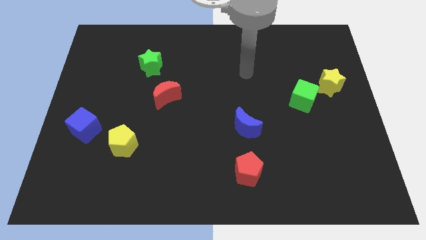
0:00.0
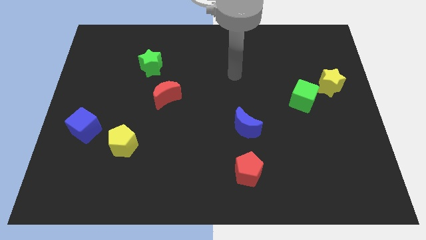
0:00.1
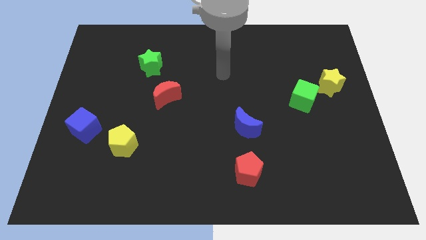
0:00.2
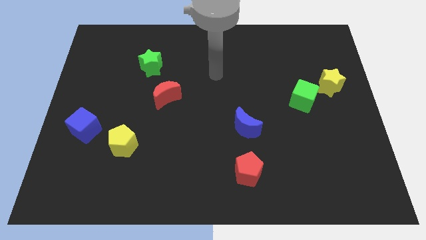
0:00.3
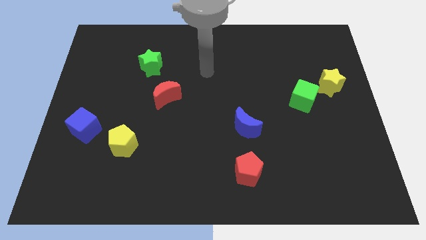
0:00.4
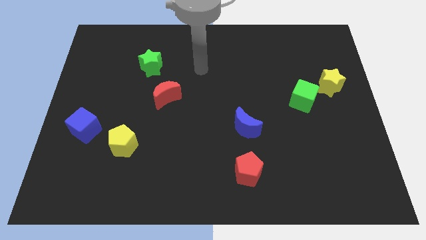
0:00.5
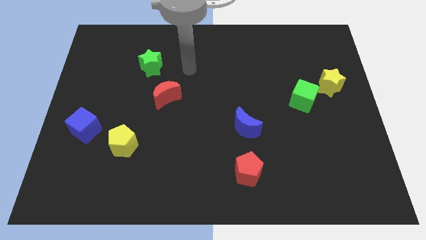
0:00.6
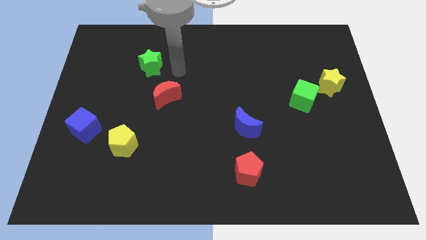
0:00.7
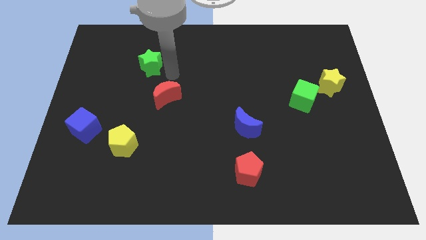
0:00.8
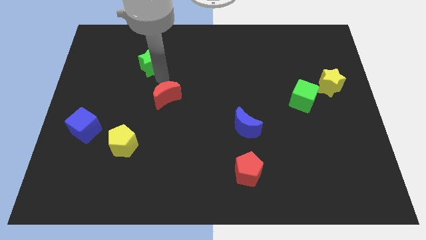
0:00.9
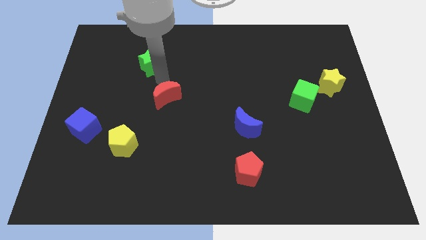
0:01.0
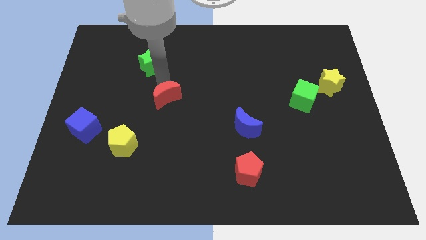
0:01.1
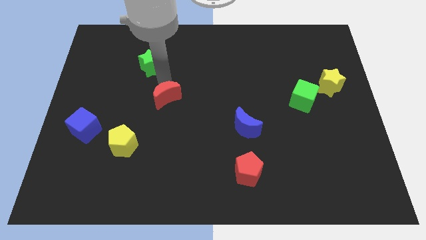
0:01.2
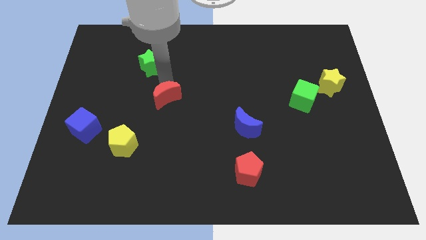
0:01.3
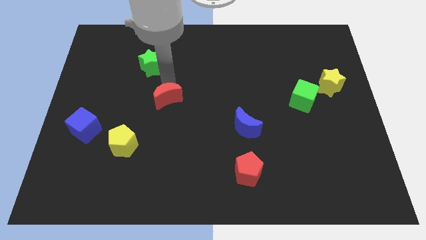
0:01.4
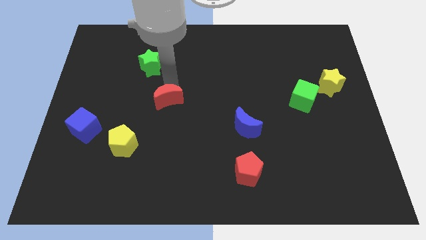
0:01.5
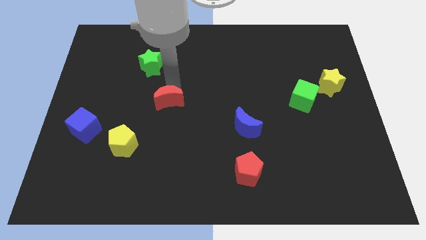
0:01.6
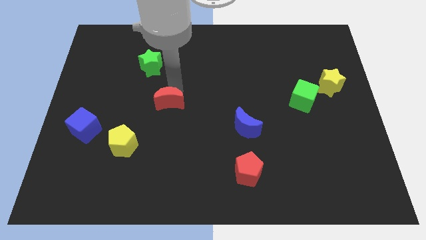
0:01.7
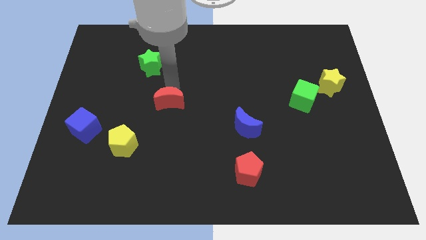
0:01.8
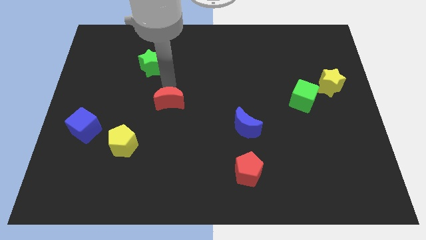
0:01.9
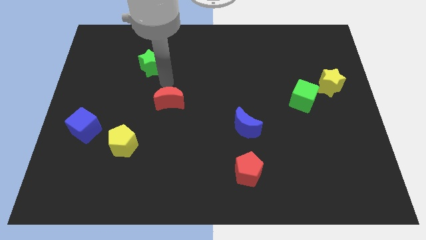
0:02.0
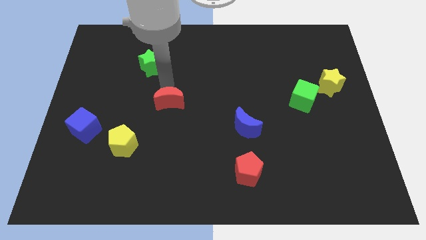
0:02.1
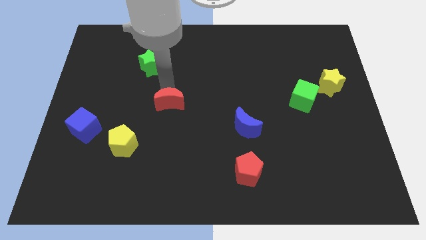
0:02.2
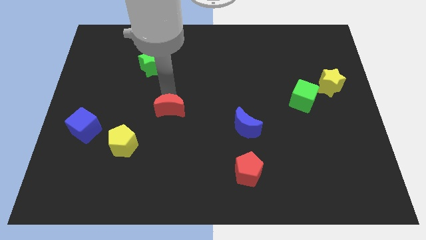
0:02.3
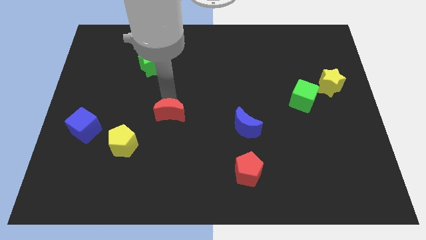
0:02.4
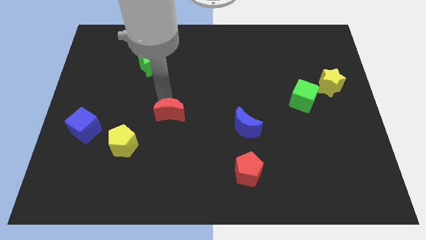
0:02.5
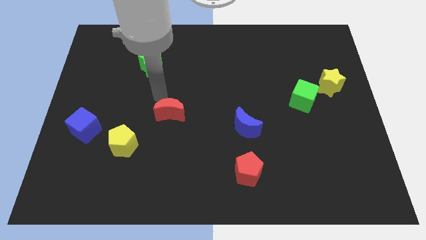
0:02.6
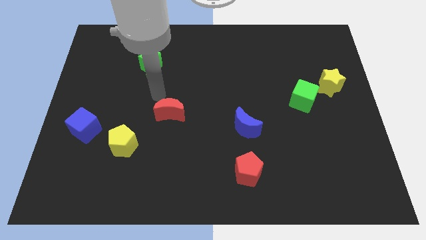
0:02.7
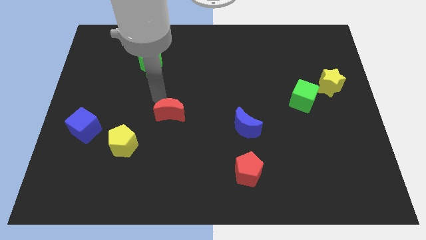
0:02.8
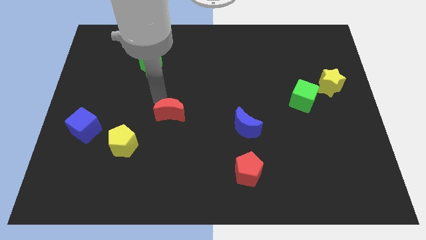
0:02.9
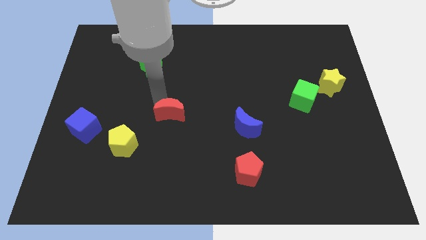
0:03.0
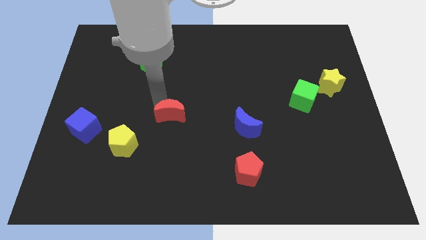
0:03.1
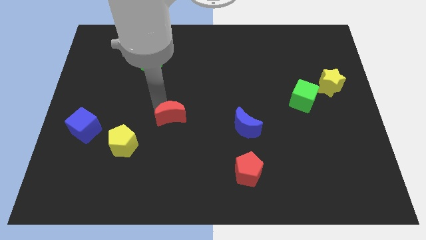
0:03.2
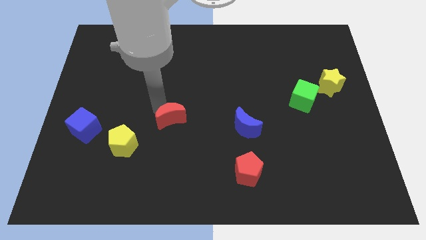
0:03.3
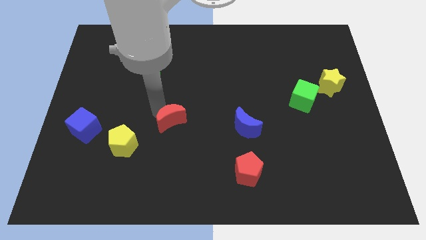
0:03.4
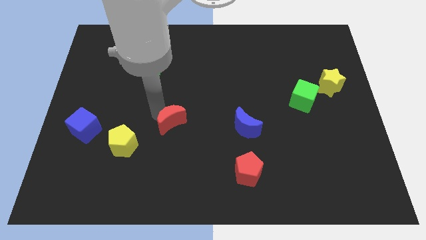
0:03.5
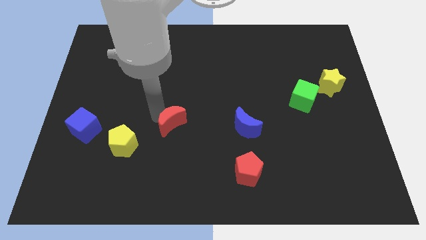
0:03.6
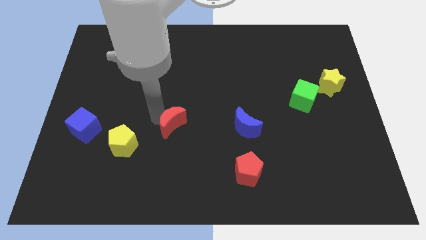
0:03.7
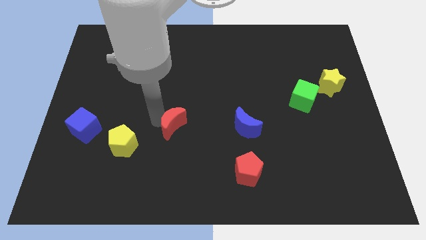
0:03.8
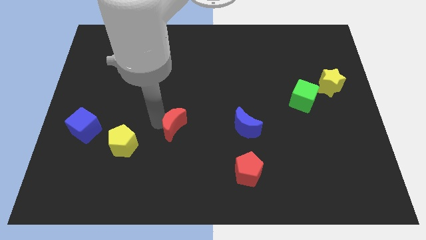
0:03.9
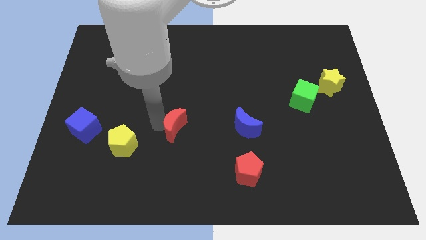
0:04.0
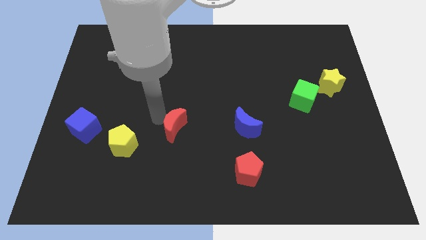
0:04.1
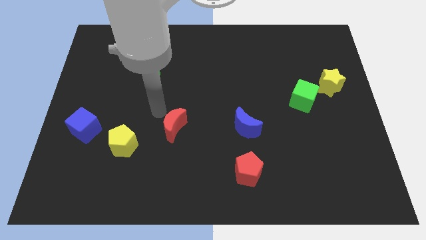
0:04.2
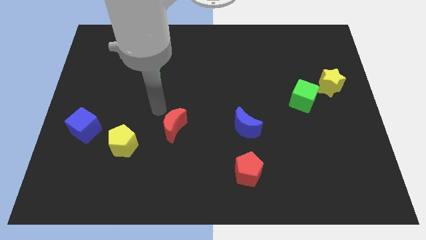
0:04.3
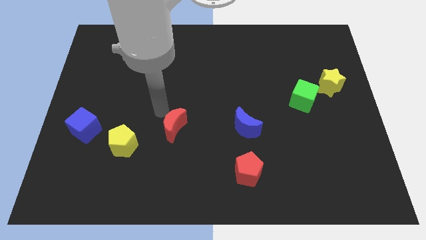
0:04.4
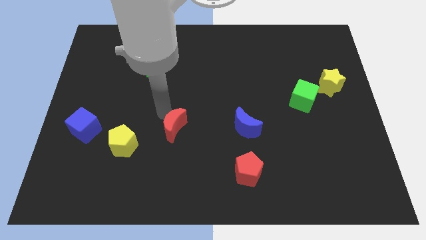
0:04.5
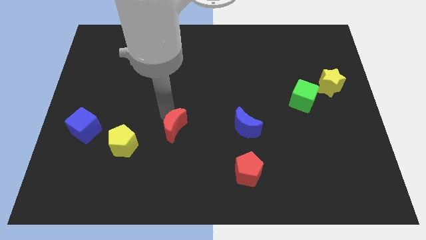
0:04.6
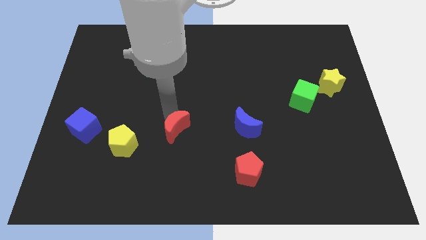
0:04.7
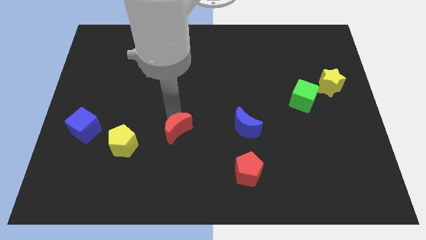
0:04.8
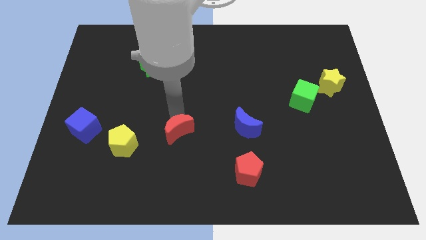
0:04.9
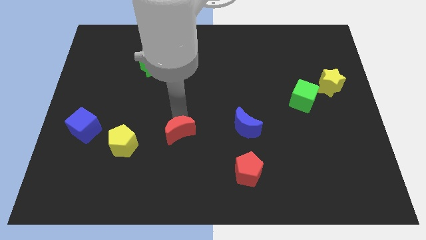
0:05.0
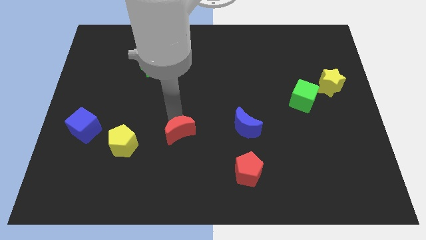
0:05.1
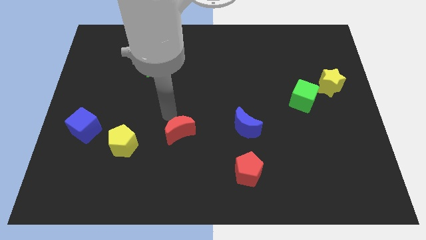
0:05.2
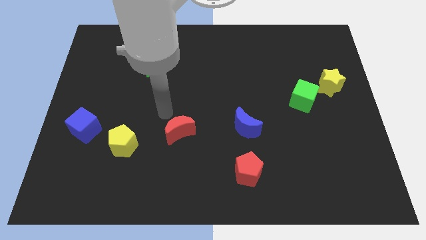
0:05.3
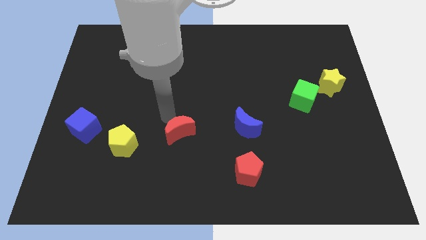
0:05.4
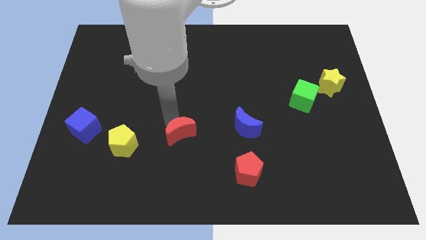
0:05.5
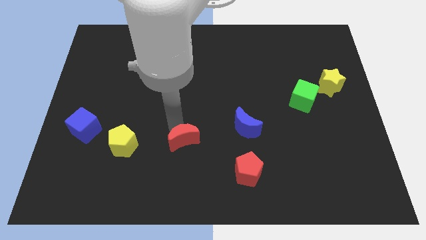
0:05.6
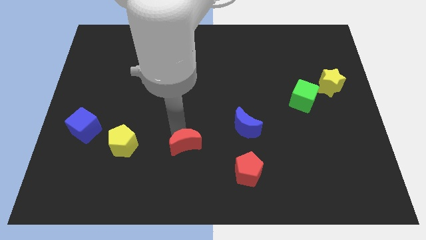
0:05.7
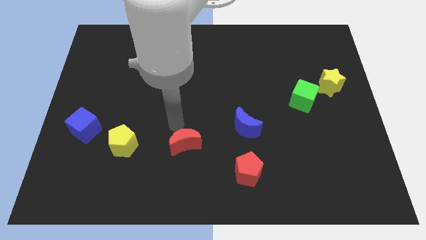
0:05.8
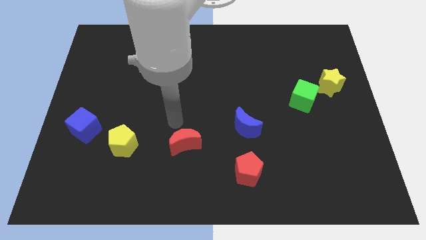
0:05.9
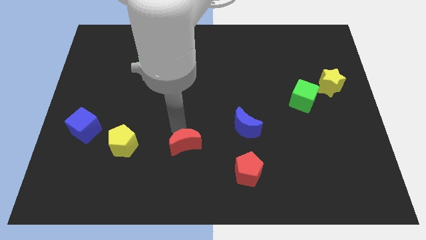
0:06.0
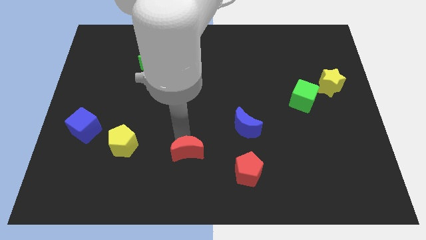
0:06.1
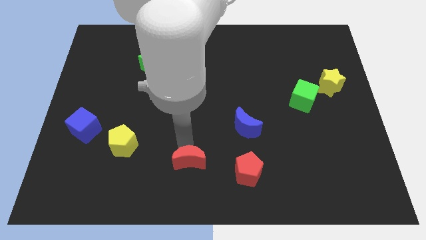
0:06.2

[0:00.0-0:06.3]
push the red moon to the bottom

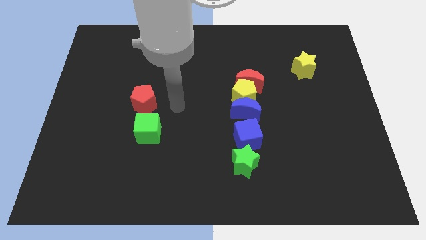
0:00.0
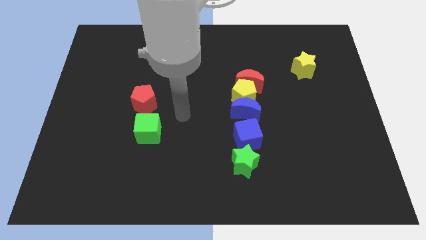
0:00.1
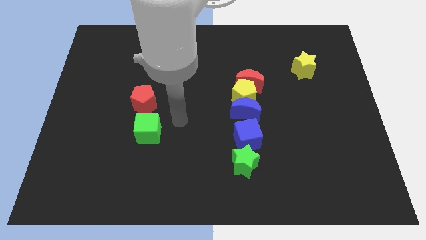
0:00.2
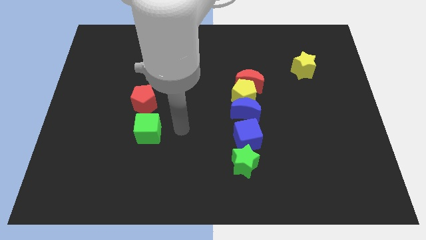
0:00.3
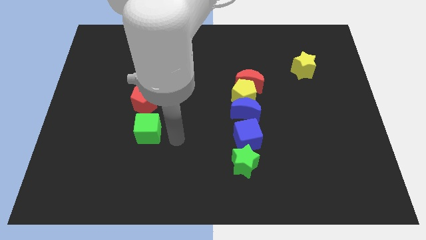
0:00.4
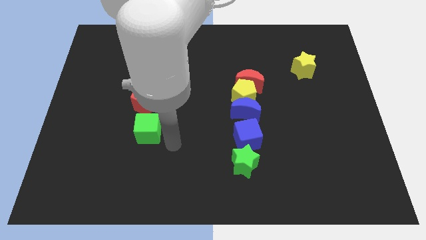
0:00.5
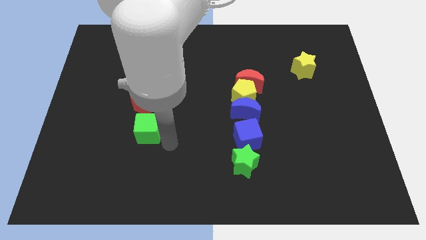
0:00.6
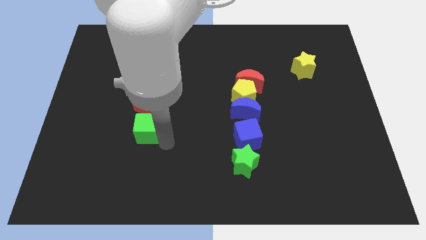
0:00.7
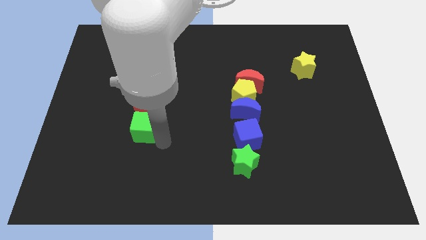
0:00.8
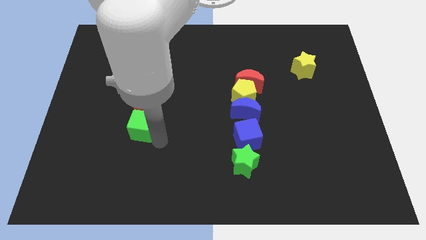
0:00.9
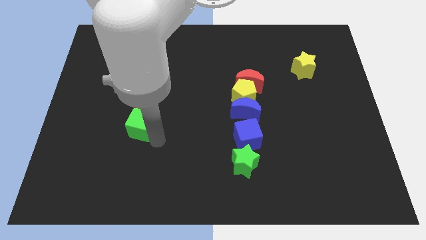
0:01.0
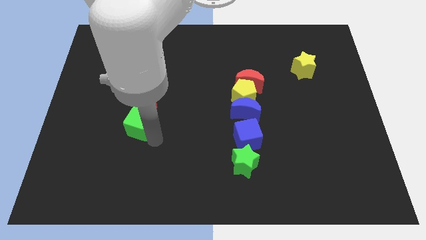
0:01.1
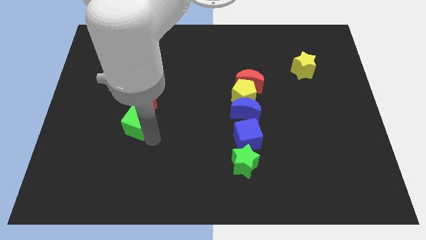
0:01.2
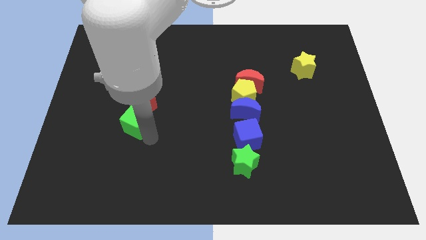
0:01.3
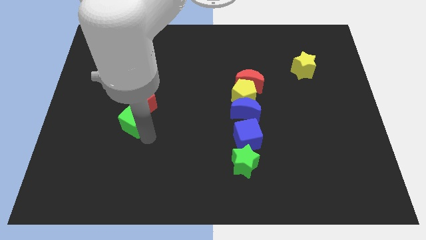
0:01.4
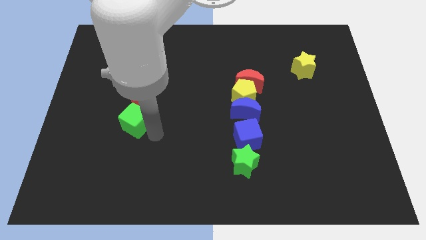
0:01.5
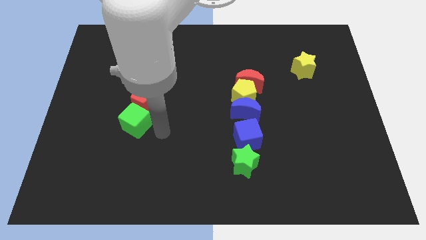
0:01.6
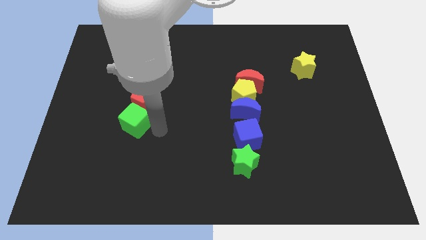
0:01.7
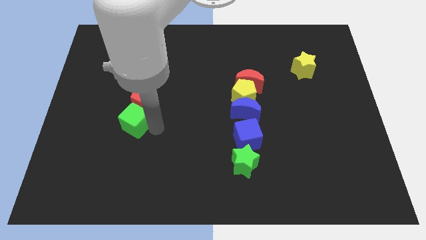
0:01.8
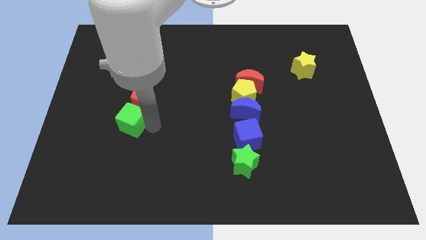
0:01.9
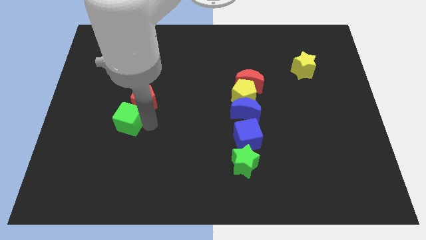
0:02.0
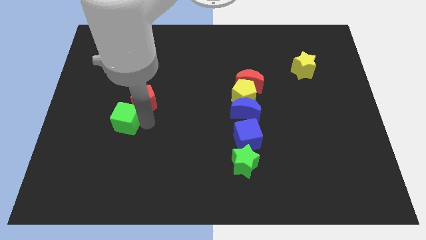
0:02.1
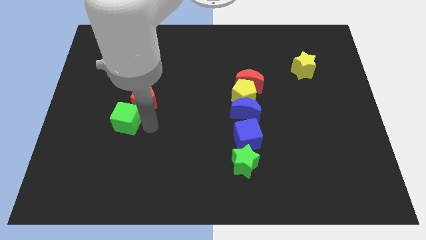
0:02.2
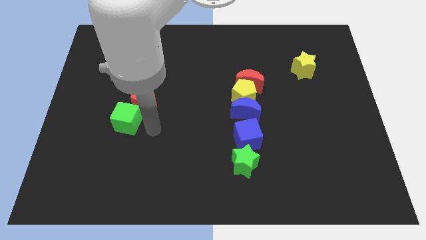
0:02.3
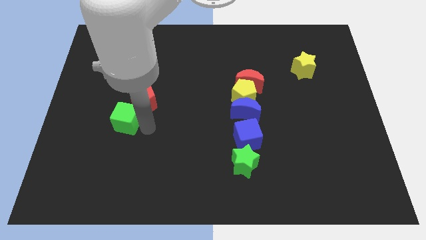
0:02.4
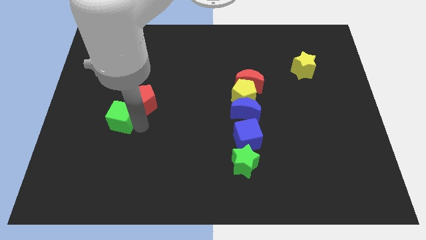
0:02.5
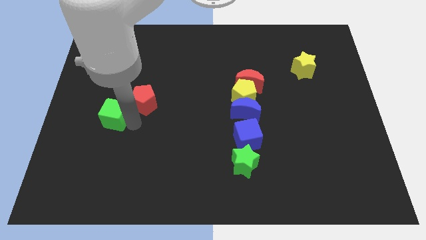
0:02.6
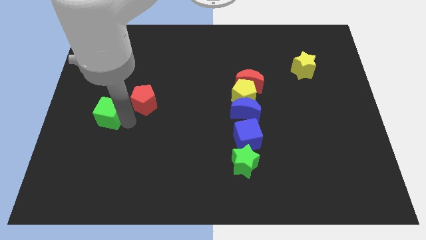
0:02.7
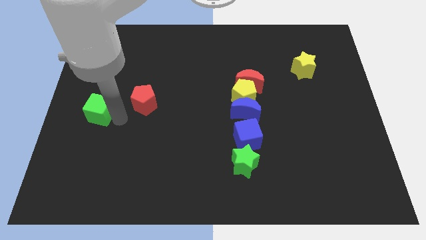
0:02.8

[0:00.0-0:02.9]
put the green cube to the left side of the board
